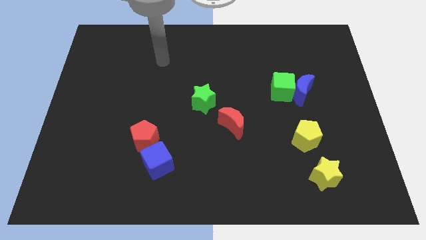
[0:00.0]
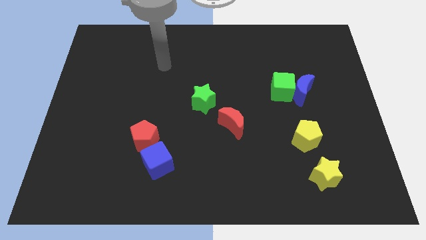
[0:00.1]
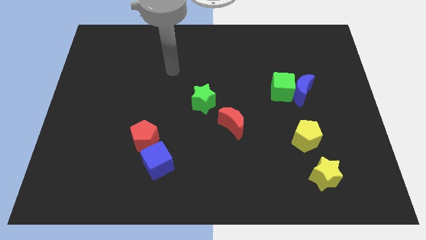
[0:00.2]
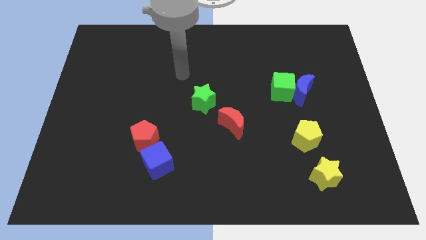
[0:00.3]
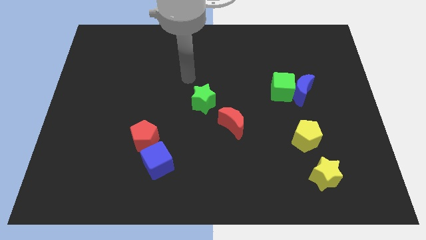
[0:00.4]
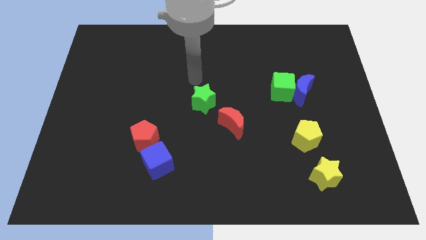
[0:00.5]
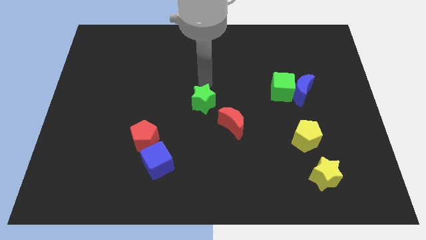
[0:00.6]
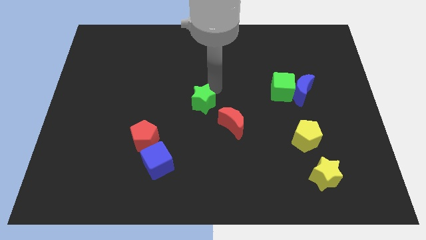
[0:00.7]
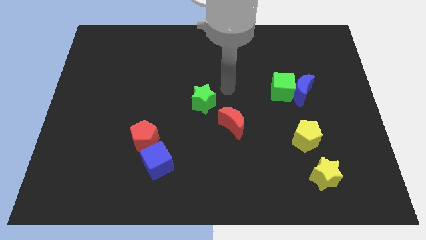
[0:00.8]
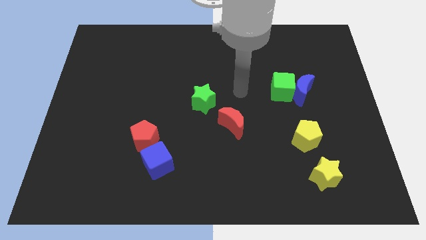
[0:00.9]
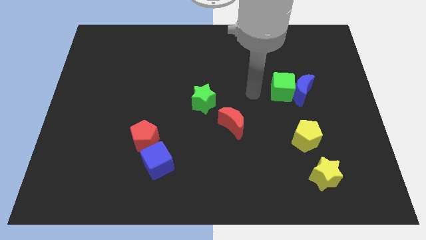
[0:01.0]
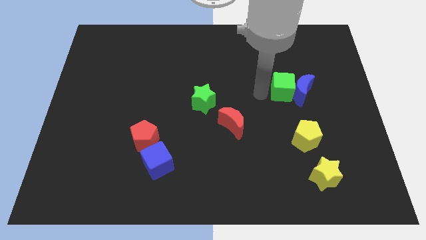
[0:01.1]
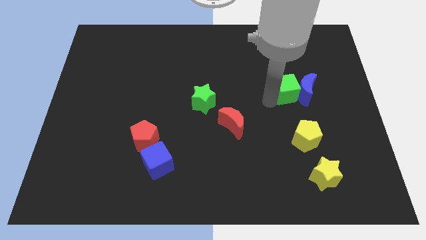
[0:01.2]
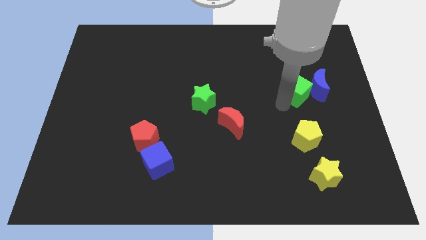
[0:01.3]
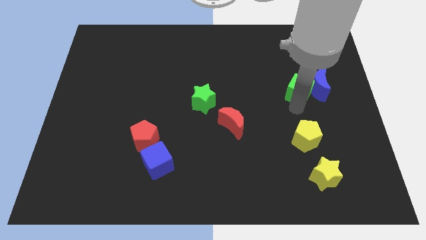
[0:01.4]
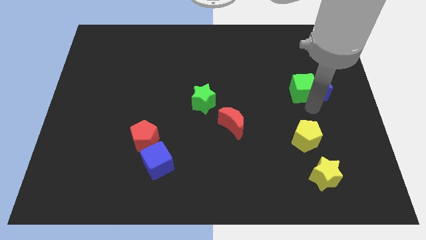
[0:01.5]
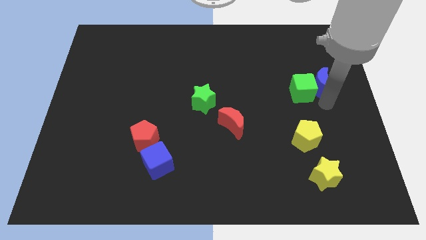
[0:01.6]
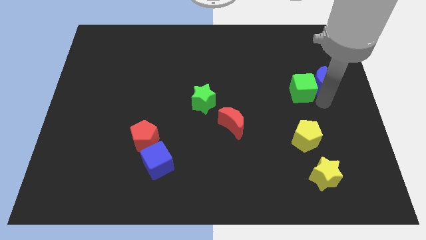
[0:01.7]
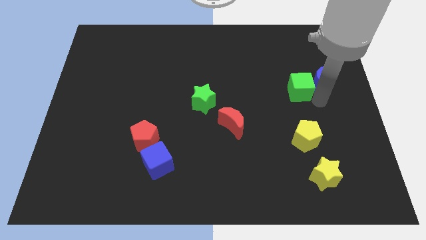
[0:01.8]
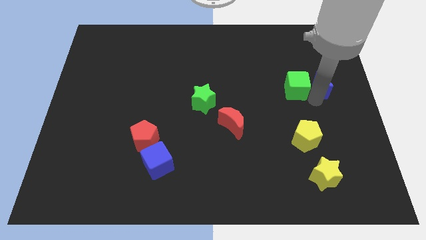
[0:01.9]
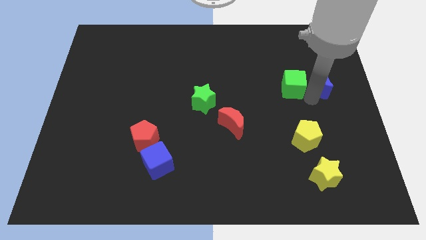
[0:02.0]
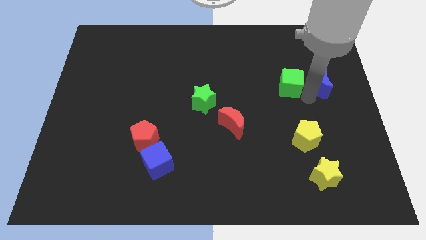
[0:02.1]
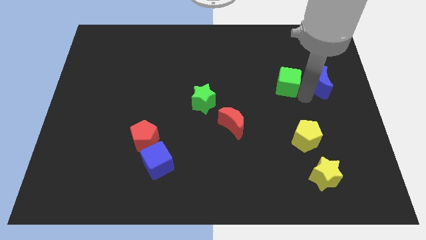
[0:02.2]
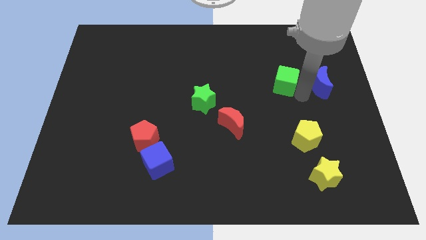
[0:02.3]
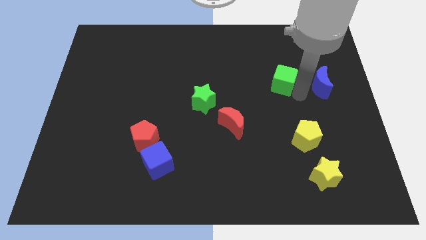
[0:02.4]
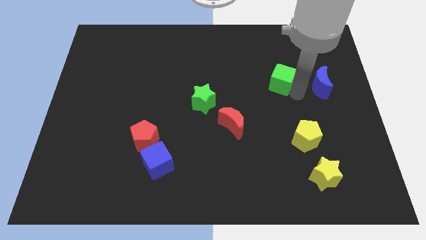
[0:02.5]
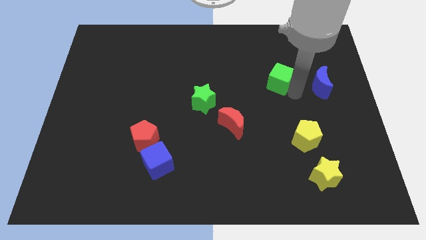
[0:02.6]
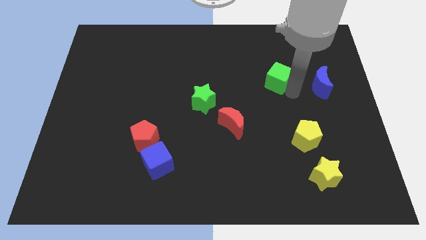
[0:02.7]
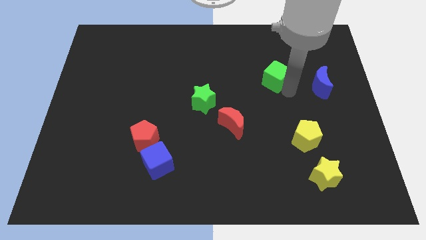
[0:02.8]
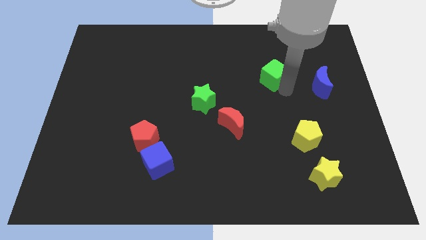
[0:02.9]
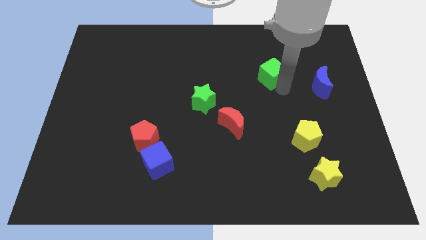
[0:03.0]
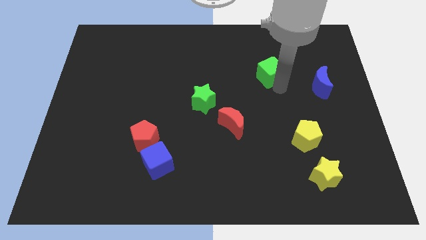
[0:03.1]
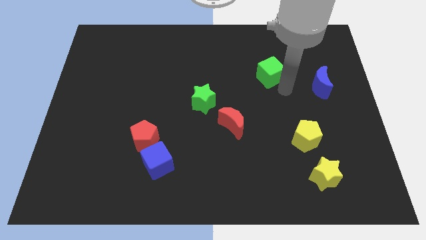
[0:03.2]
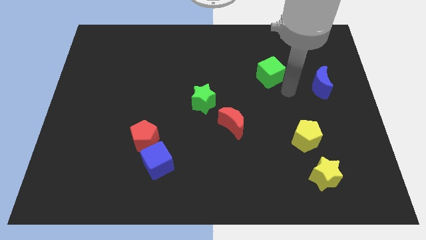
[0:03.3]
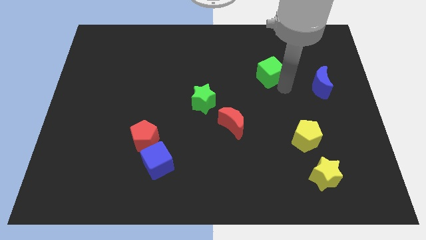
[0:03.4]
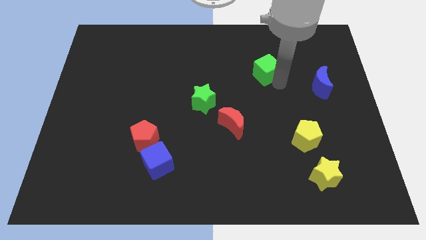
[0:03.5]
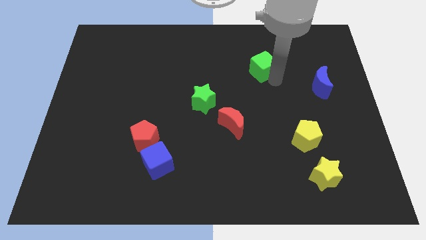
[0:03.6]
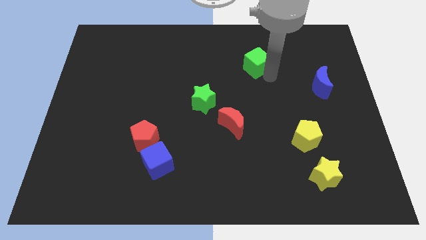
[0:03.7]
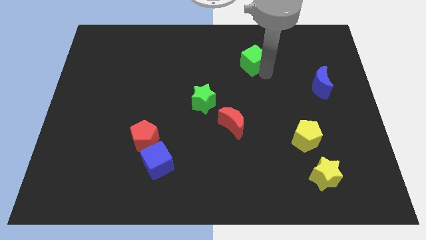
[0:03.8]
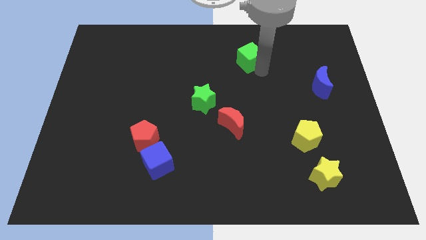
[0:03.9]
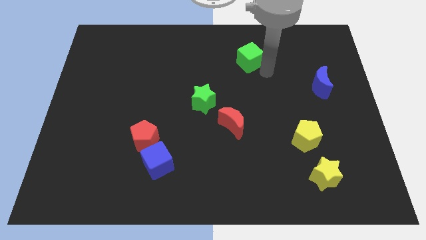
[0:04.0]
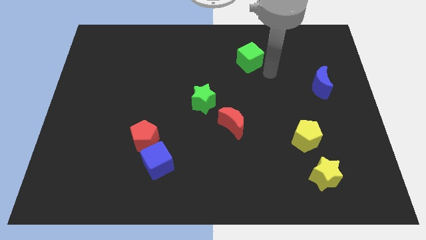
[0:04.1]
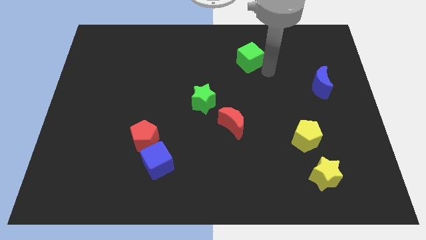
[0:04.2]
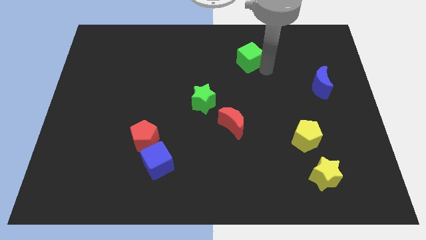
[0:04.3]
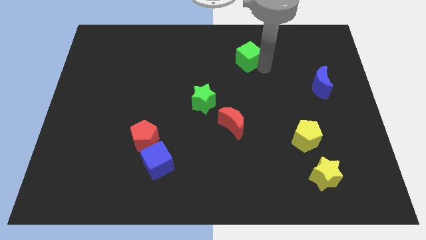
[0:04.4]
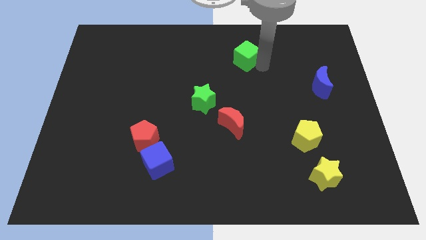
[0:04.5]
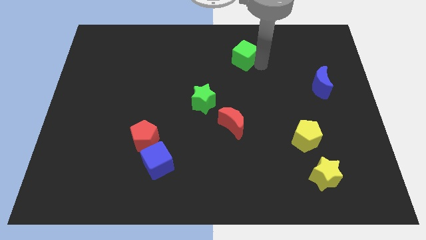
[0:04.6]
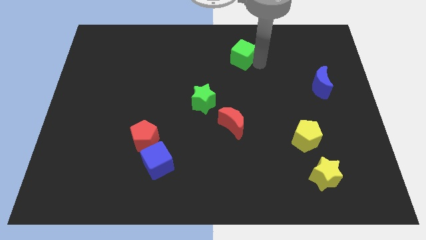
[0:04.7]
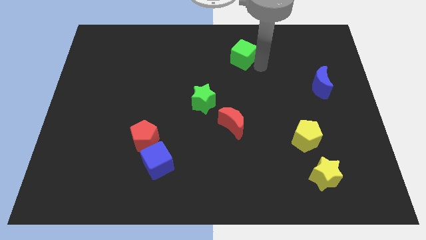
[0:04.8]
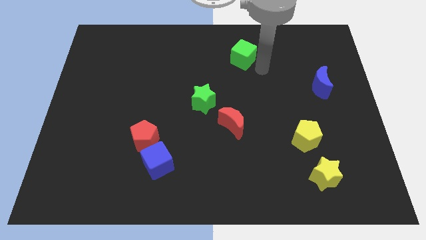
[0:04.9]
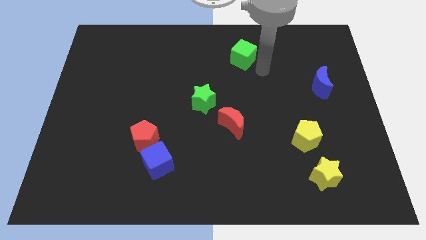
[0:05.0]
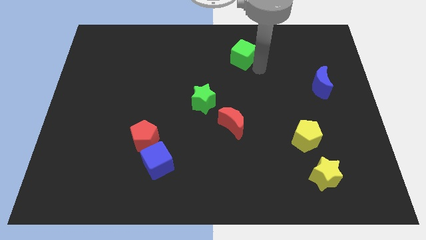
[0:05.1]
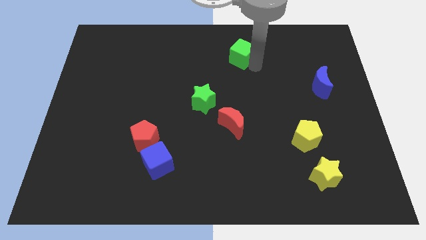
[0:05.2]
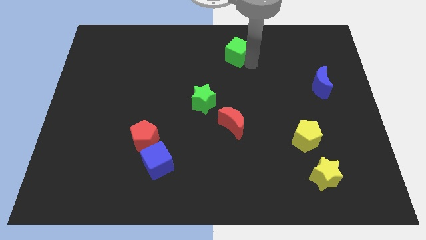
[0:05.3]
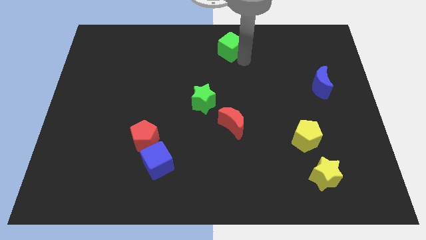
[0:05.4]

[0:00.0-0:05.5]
move the green cube to the towards your base
